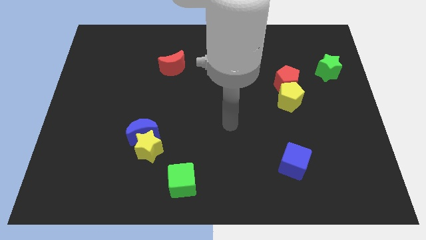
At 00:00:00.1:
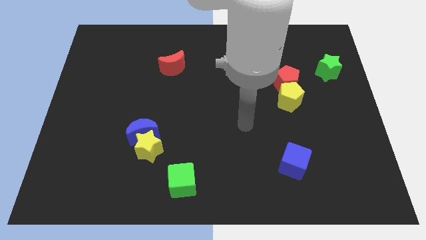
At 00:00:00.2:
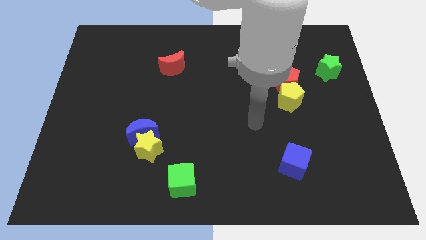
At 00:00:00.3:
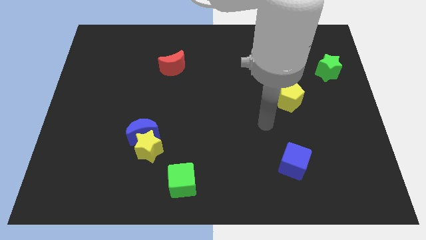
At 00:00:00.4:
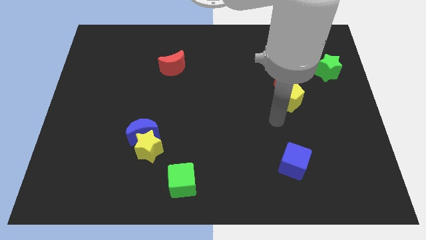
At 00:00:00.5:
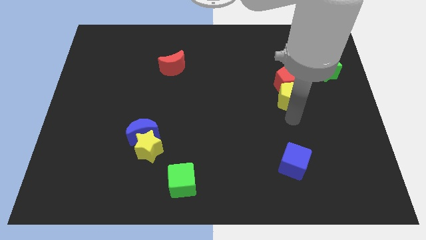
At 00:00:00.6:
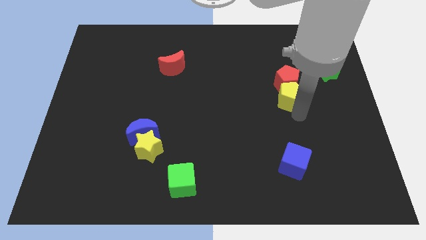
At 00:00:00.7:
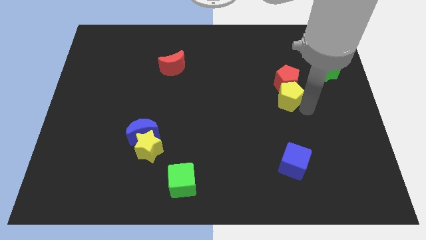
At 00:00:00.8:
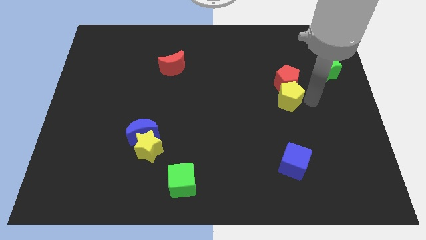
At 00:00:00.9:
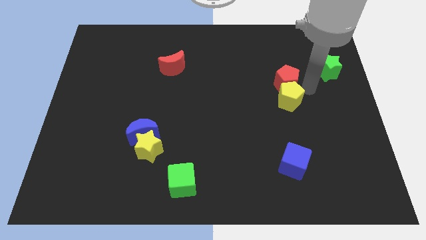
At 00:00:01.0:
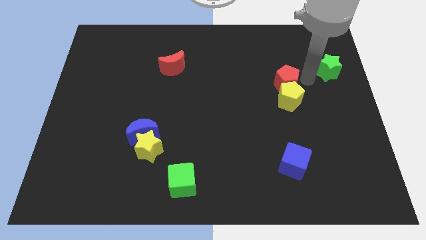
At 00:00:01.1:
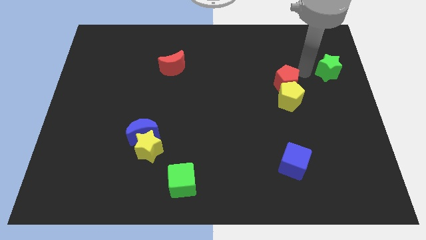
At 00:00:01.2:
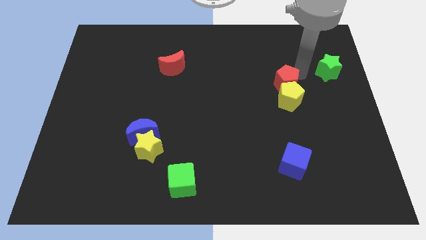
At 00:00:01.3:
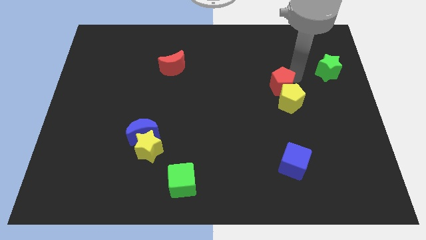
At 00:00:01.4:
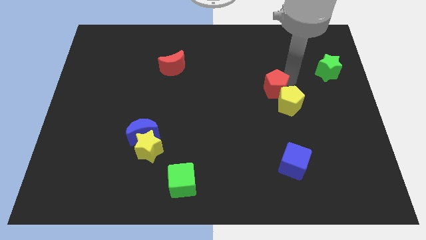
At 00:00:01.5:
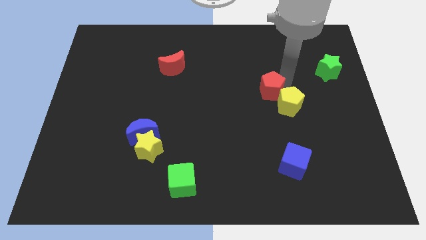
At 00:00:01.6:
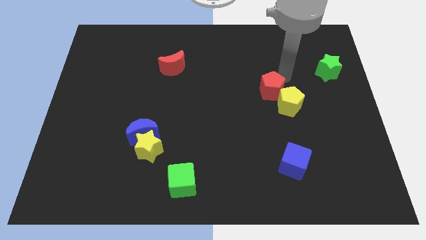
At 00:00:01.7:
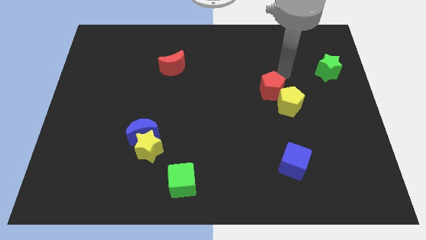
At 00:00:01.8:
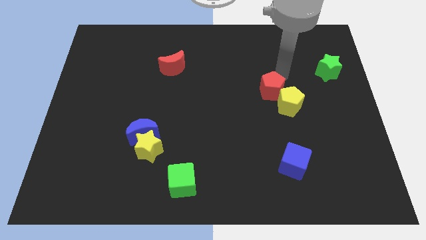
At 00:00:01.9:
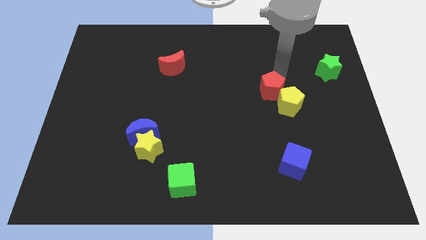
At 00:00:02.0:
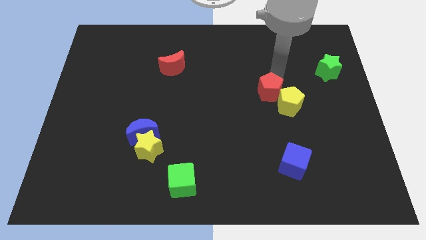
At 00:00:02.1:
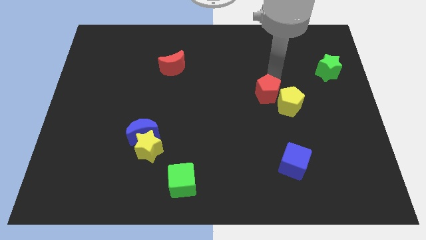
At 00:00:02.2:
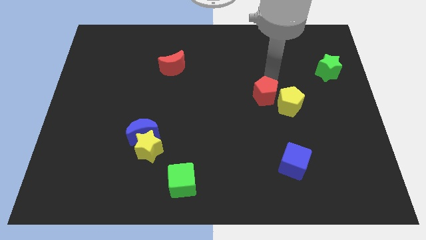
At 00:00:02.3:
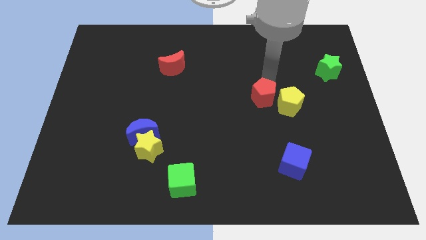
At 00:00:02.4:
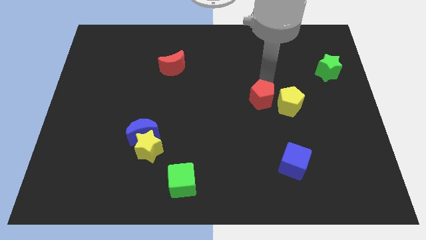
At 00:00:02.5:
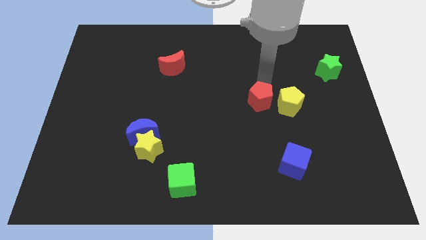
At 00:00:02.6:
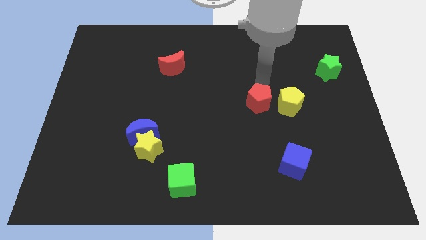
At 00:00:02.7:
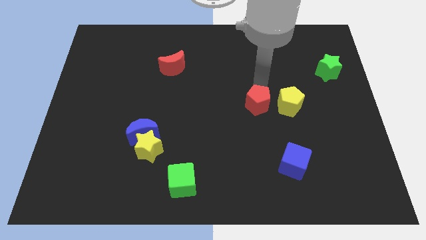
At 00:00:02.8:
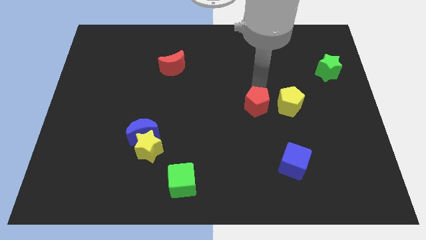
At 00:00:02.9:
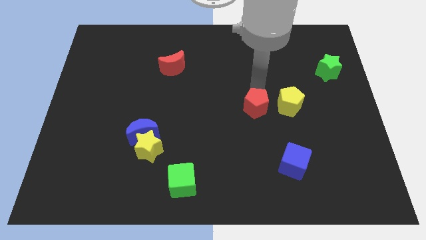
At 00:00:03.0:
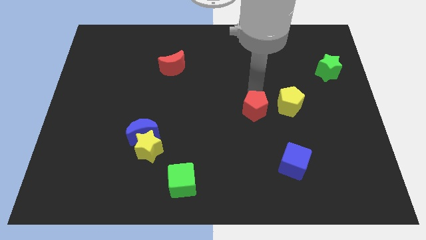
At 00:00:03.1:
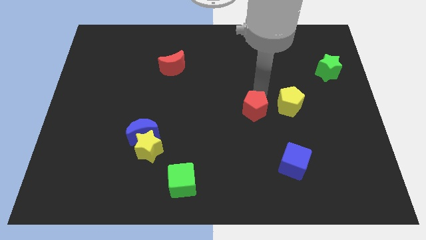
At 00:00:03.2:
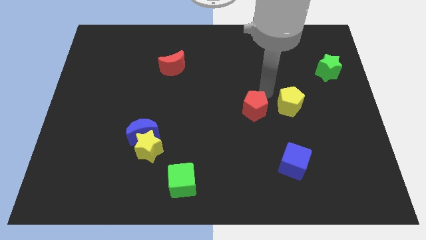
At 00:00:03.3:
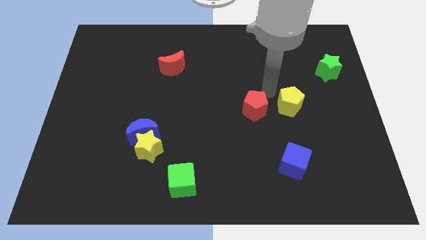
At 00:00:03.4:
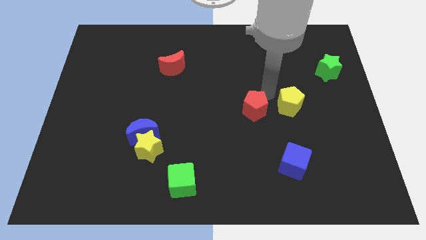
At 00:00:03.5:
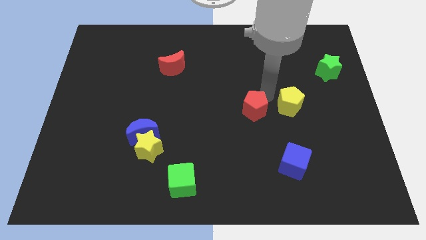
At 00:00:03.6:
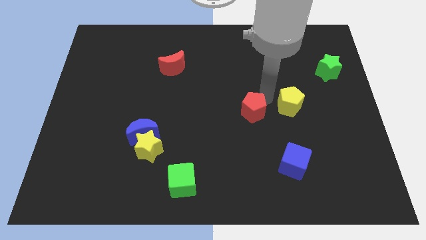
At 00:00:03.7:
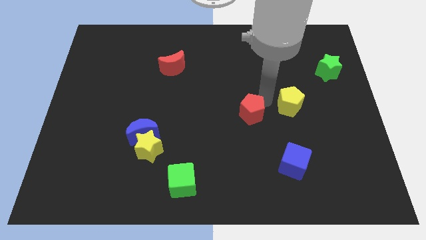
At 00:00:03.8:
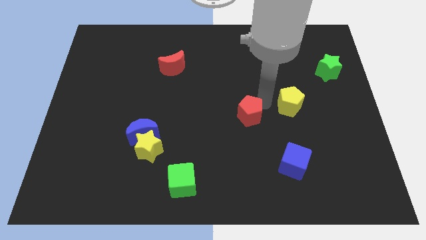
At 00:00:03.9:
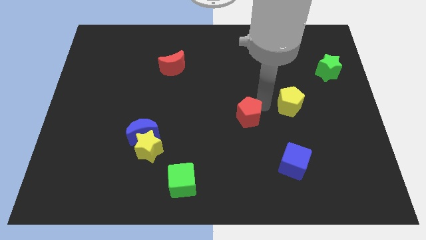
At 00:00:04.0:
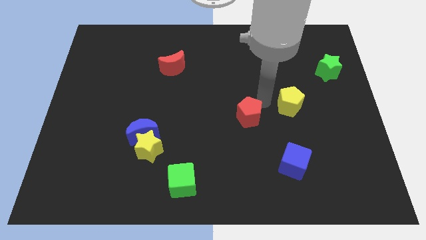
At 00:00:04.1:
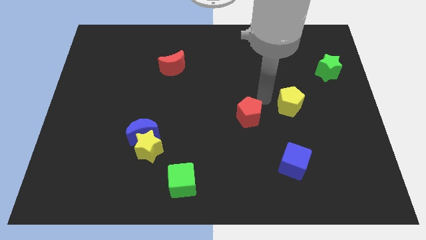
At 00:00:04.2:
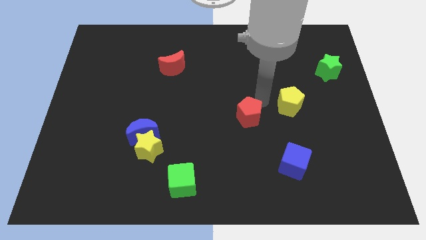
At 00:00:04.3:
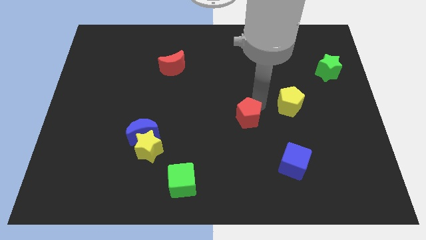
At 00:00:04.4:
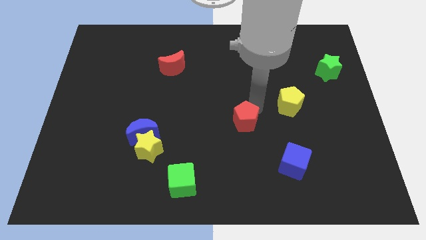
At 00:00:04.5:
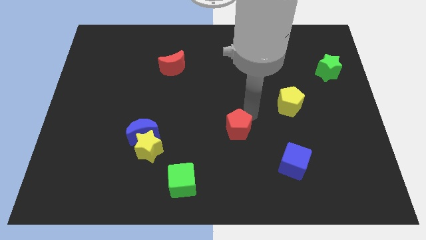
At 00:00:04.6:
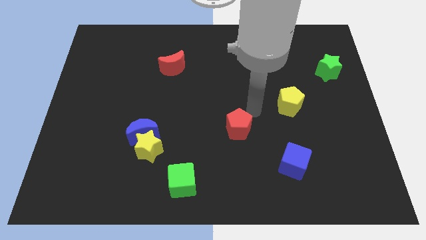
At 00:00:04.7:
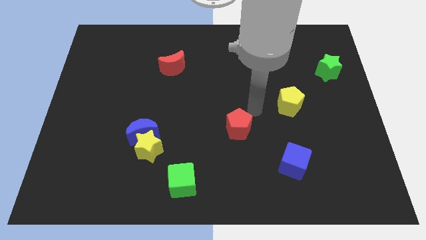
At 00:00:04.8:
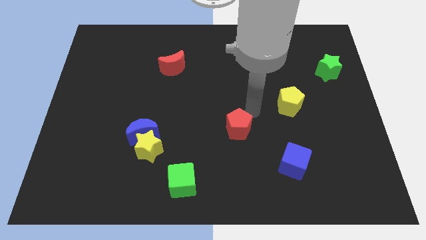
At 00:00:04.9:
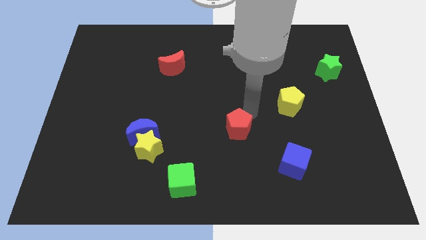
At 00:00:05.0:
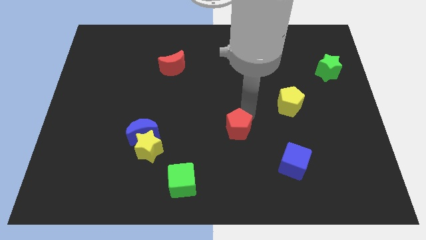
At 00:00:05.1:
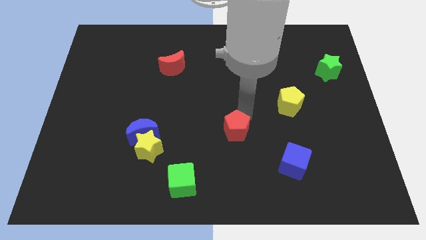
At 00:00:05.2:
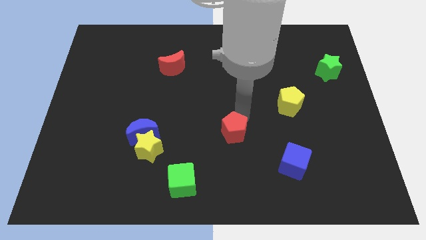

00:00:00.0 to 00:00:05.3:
move the red pentagon down and to the left

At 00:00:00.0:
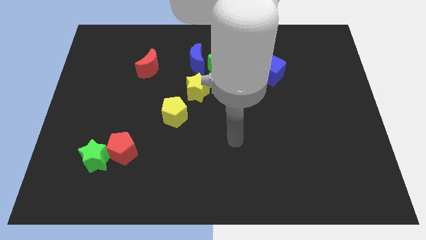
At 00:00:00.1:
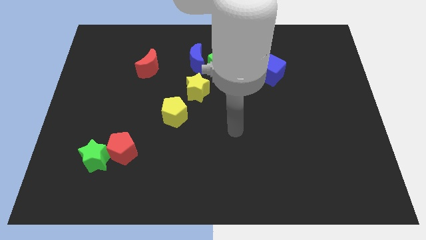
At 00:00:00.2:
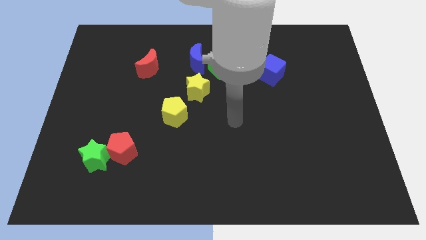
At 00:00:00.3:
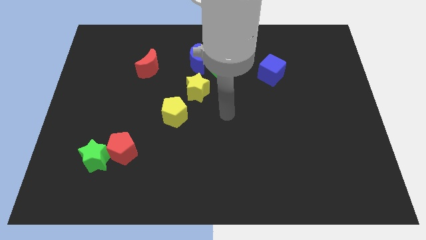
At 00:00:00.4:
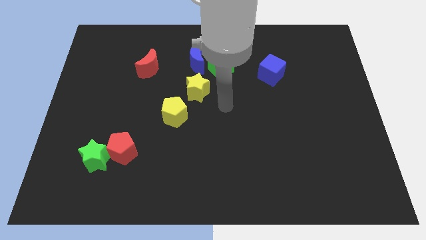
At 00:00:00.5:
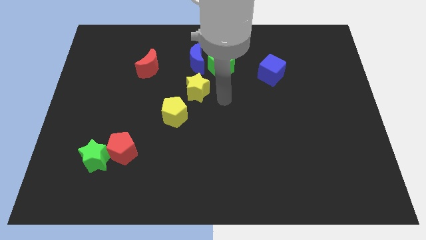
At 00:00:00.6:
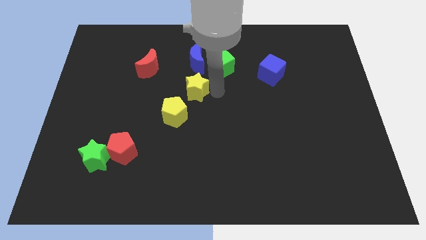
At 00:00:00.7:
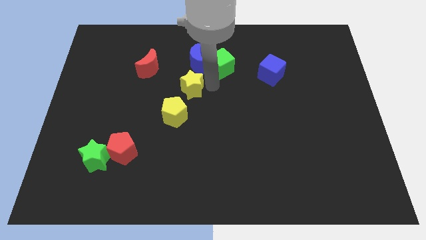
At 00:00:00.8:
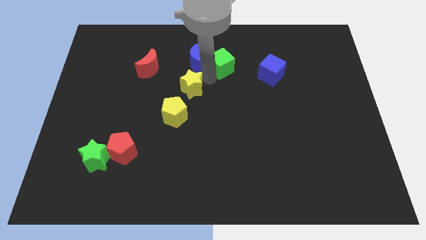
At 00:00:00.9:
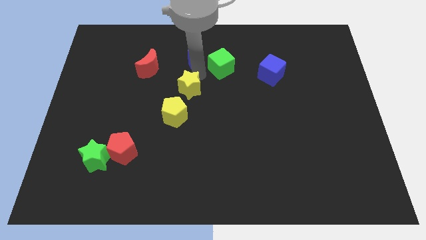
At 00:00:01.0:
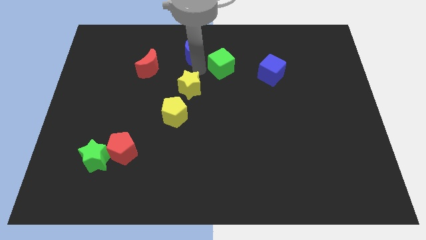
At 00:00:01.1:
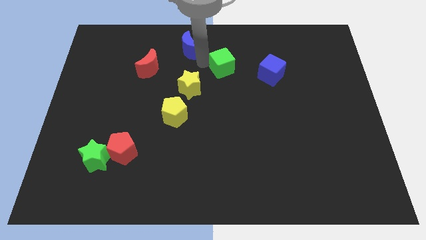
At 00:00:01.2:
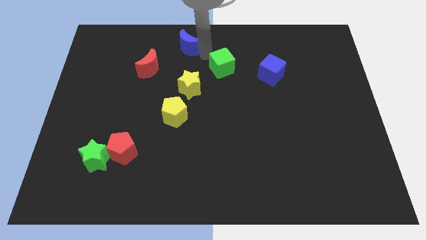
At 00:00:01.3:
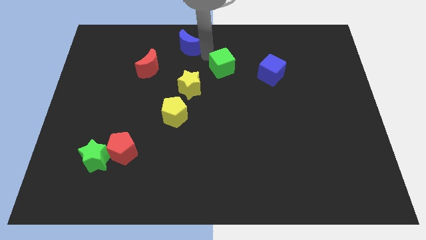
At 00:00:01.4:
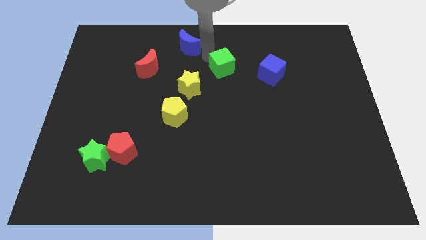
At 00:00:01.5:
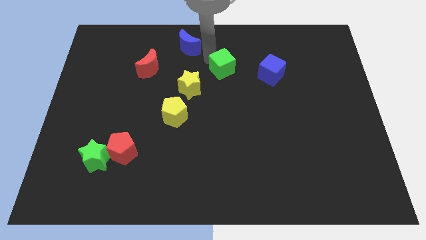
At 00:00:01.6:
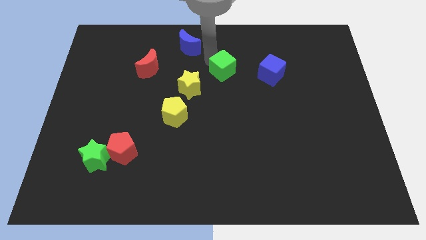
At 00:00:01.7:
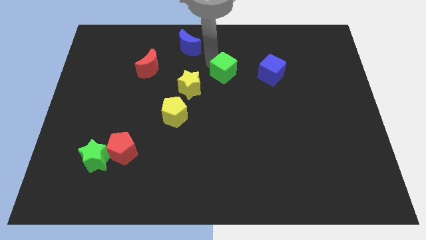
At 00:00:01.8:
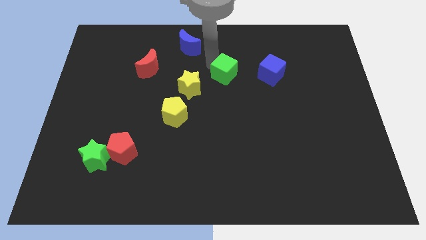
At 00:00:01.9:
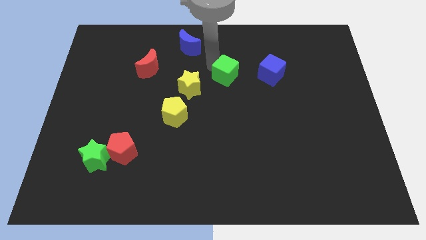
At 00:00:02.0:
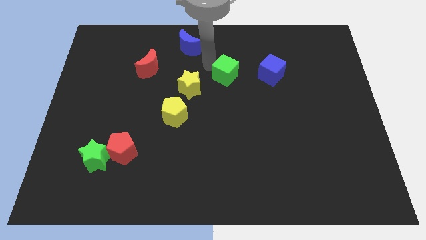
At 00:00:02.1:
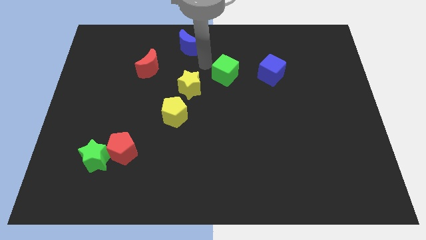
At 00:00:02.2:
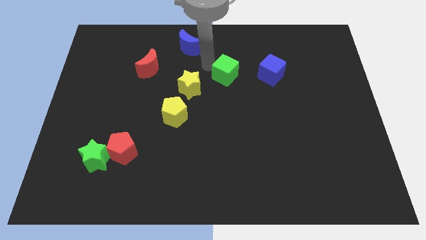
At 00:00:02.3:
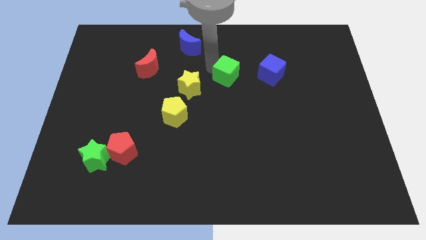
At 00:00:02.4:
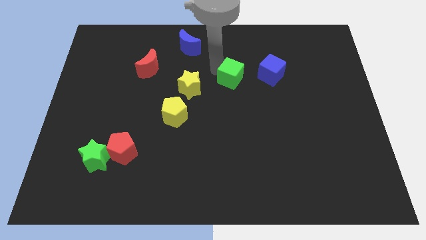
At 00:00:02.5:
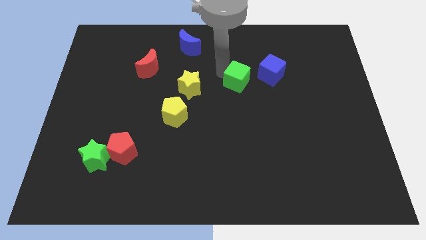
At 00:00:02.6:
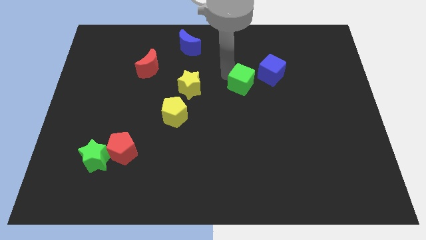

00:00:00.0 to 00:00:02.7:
slide the green cube a bit diagonally down and right
